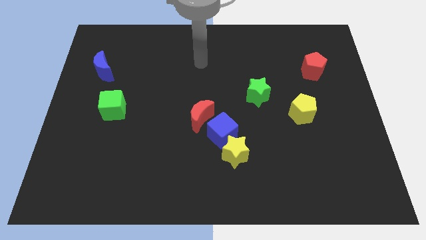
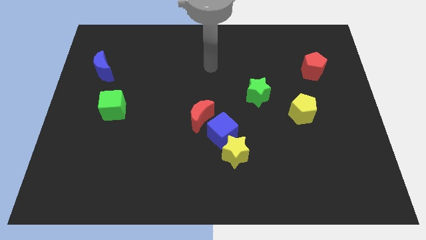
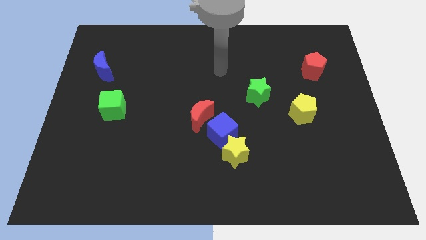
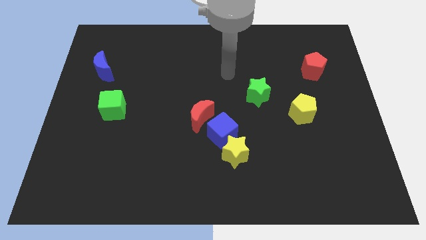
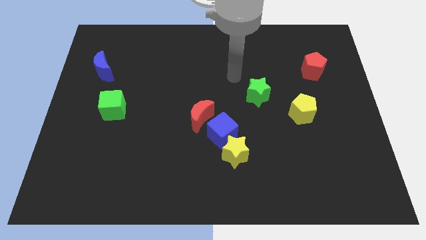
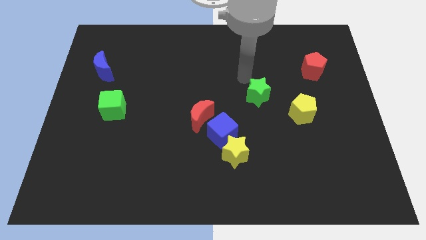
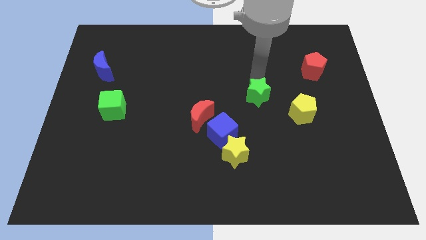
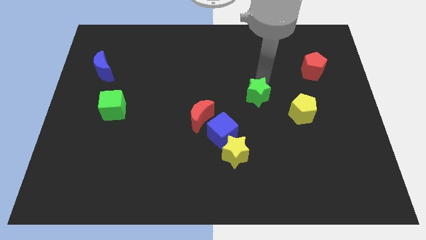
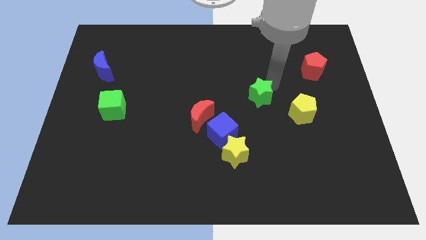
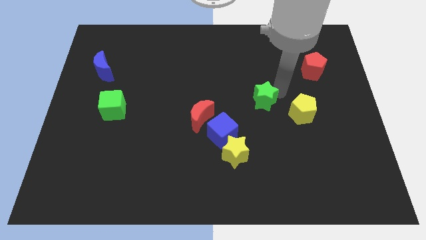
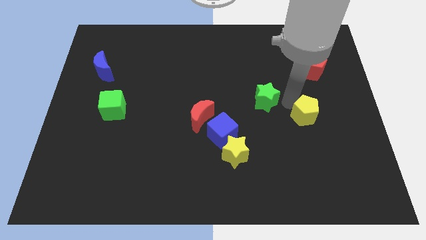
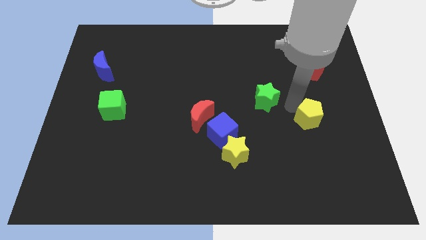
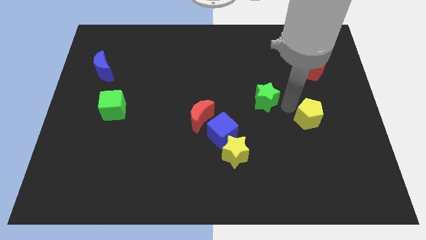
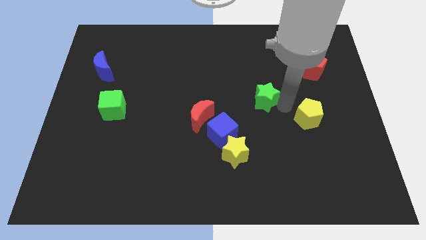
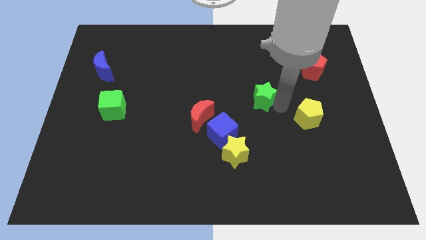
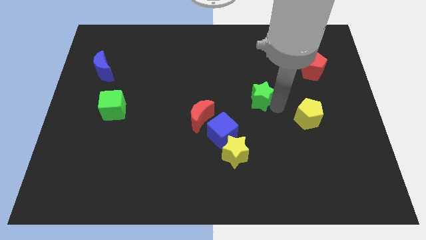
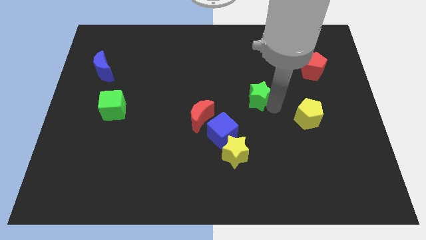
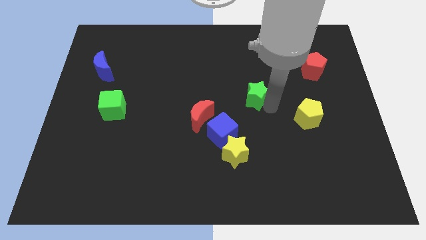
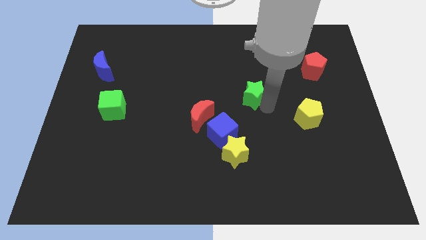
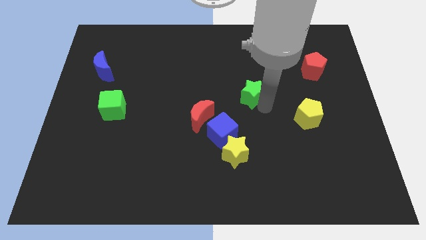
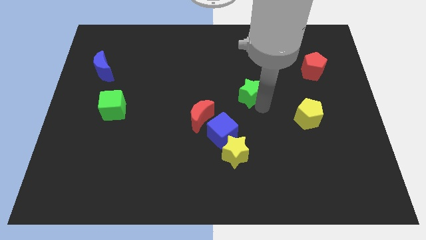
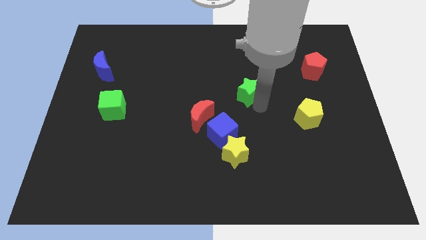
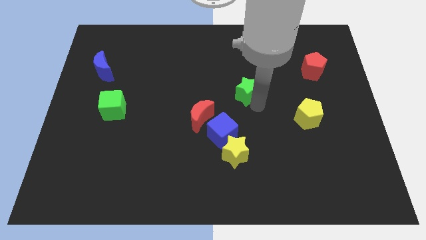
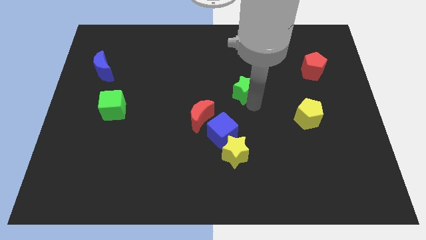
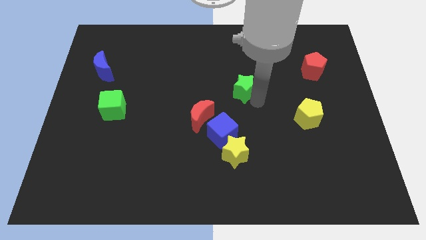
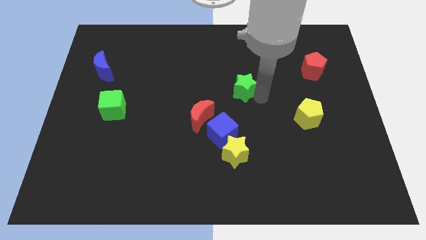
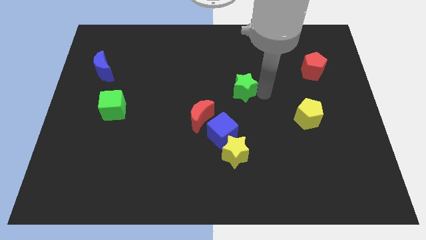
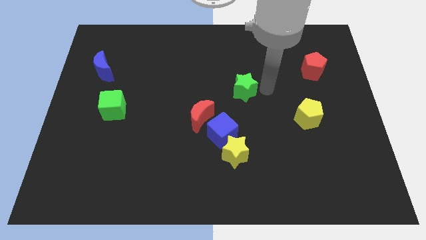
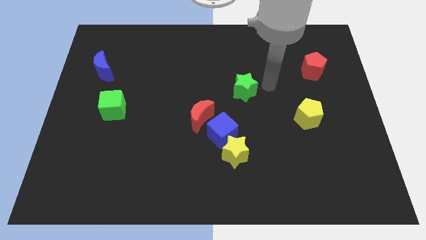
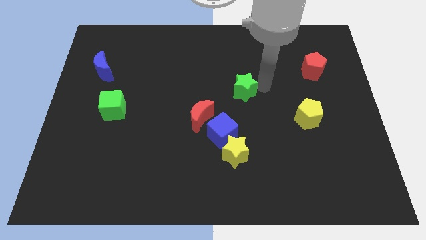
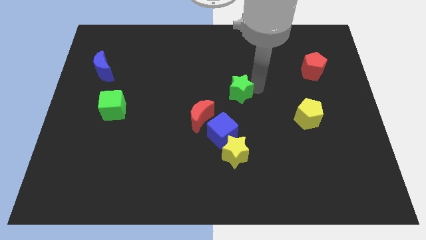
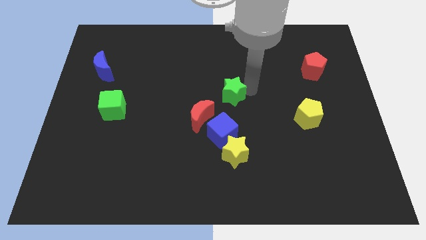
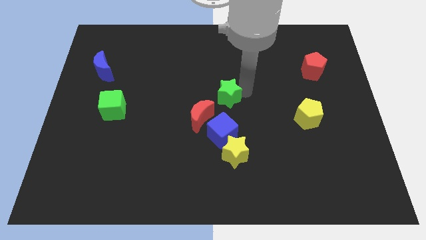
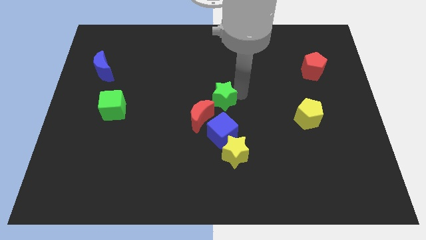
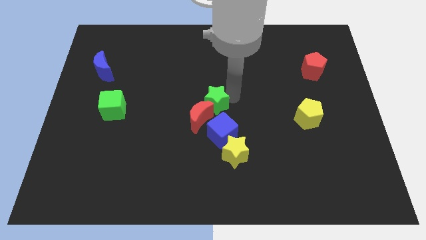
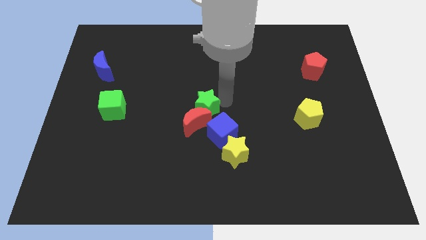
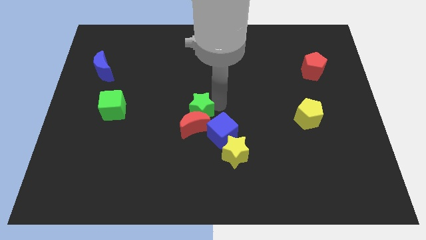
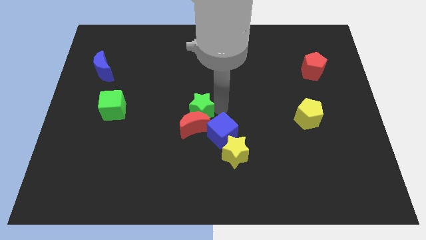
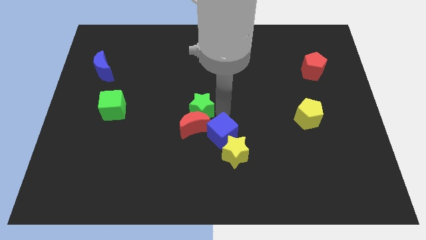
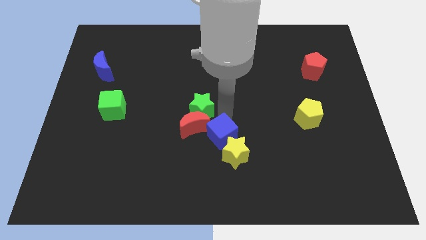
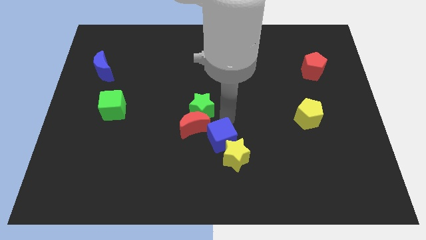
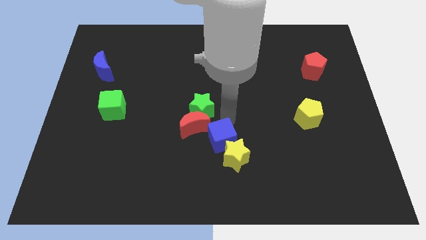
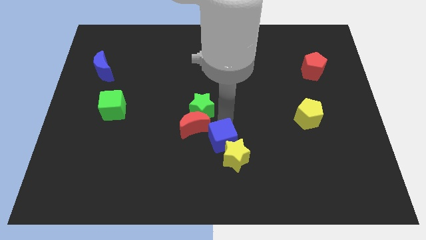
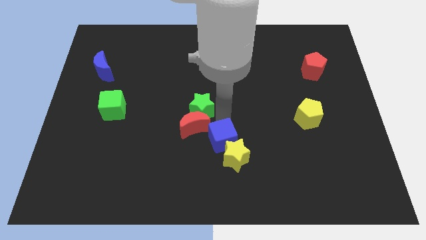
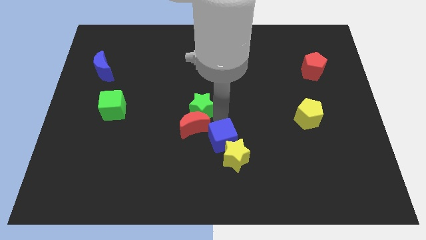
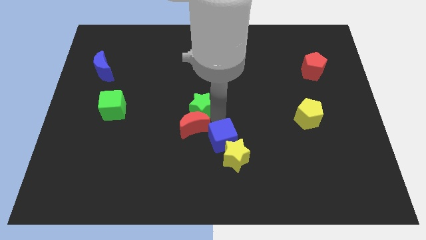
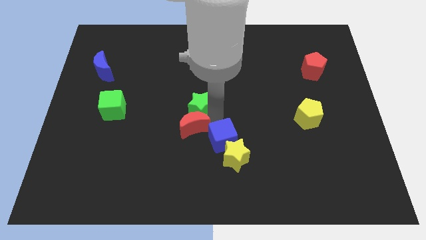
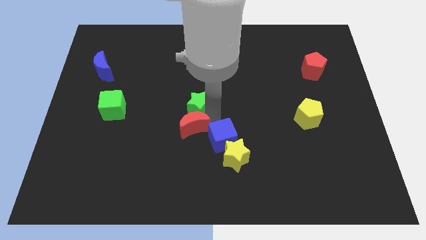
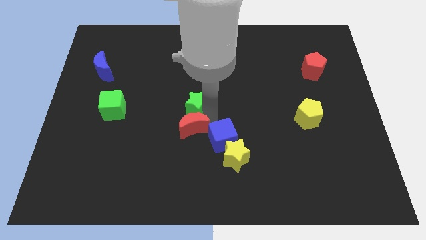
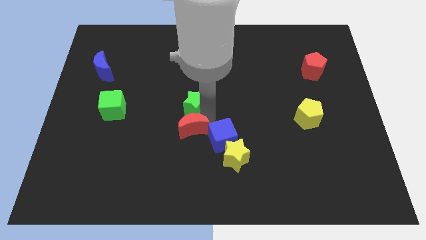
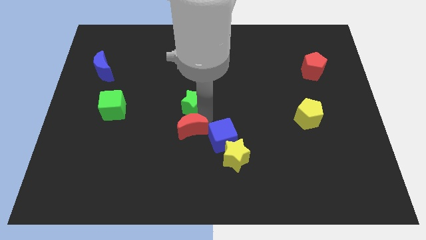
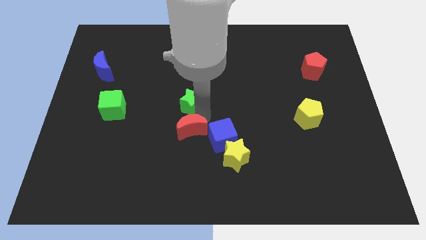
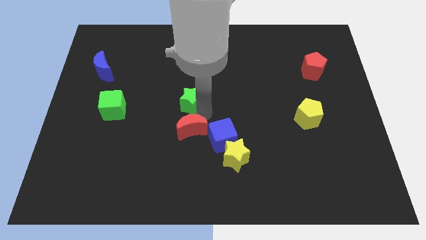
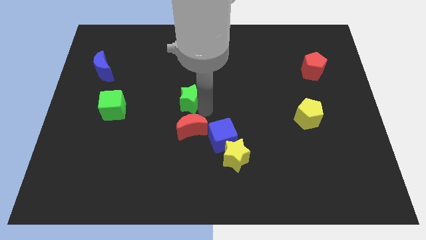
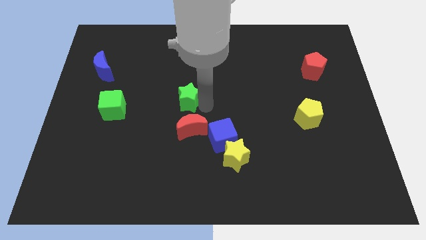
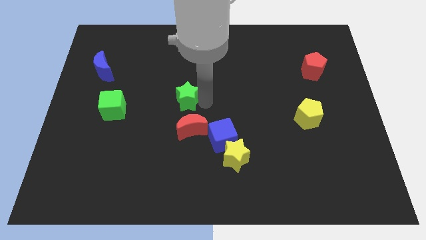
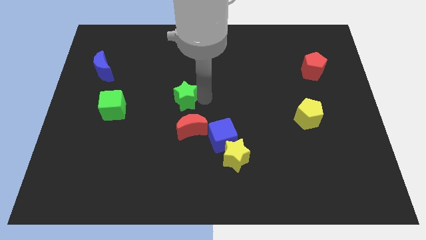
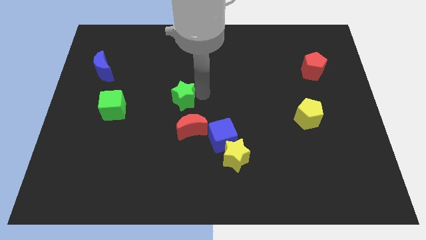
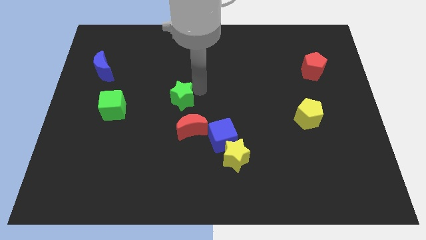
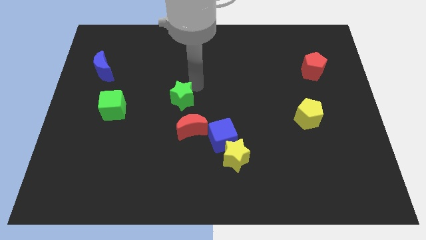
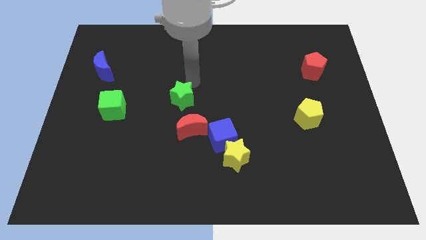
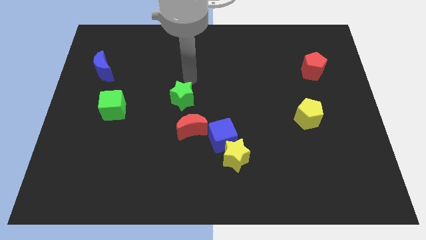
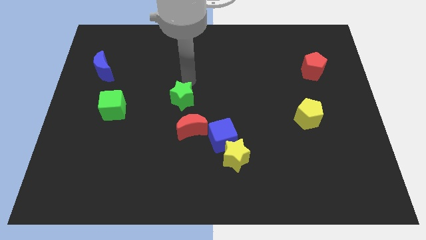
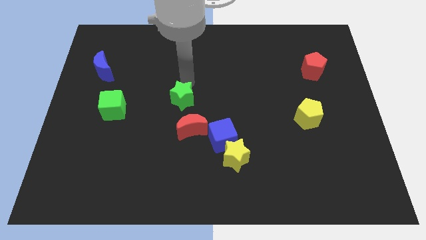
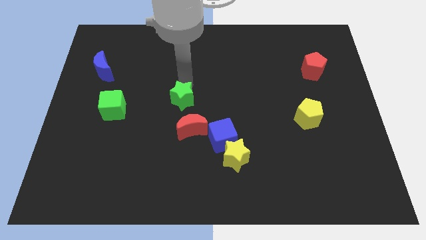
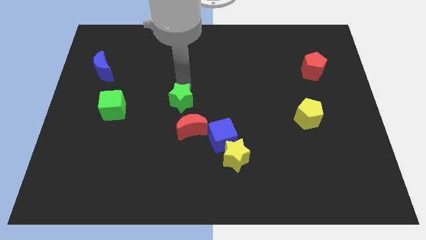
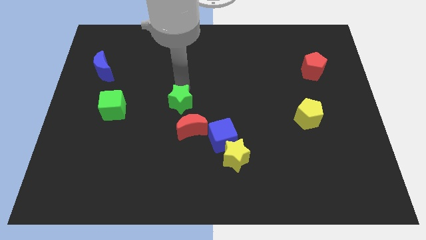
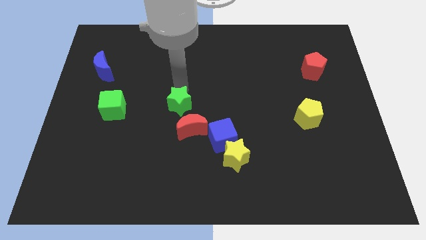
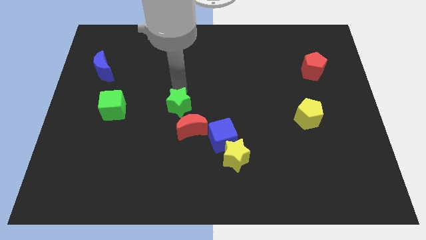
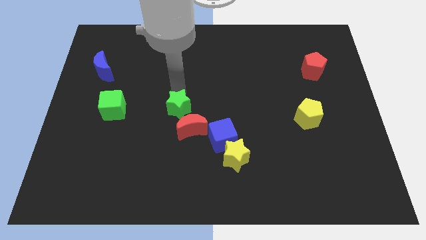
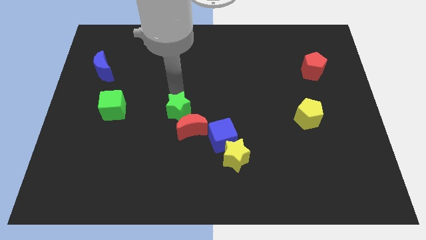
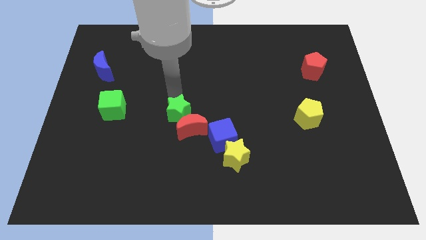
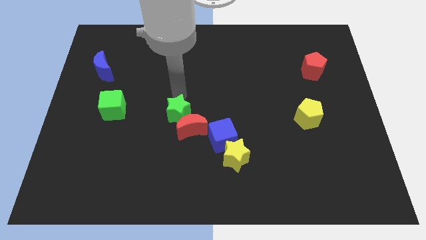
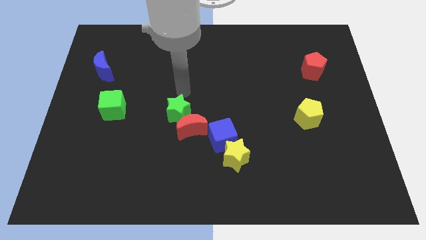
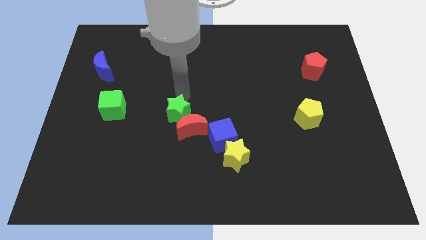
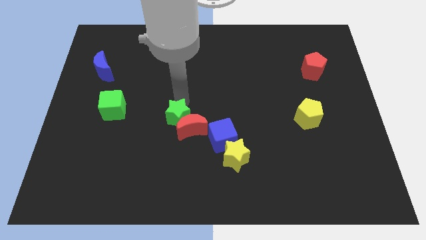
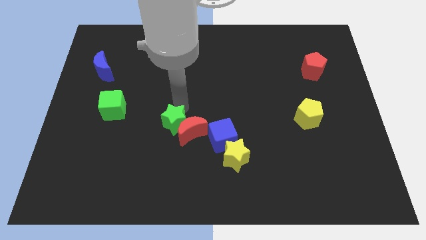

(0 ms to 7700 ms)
put the green star just left of the blue cube
